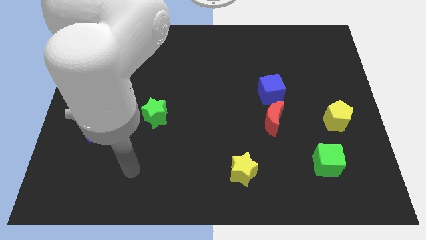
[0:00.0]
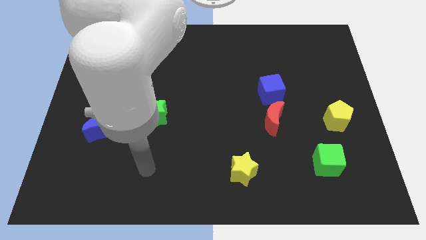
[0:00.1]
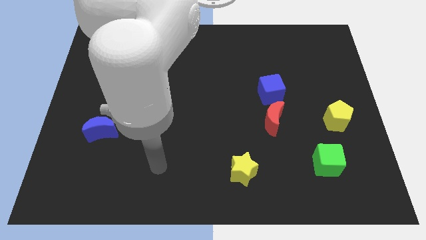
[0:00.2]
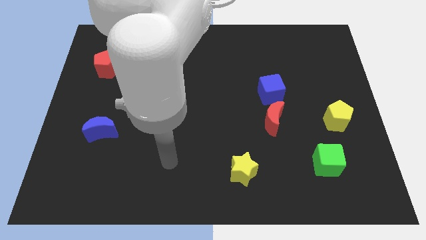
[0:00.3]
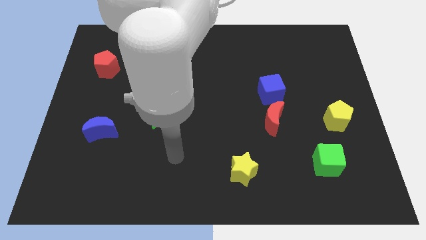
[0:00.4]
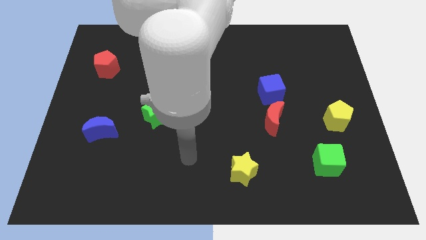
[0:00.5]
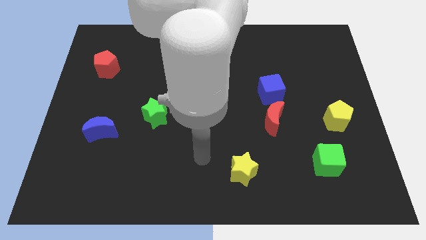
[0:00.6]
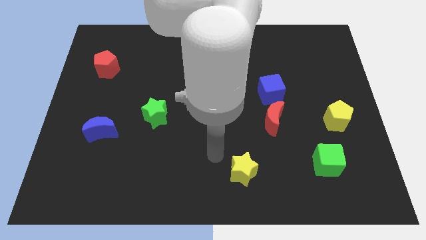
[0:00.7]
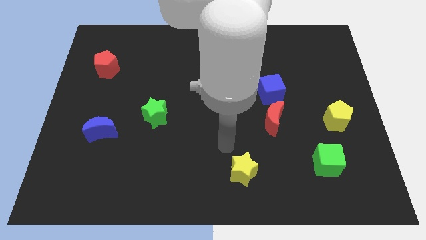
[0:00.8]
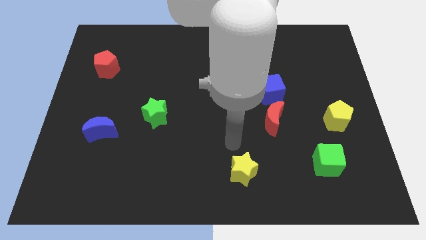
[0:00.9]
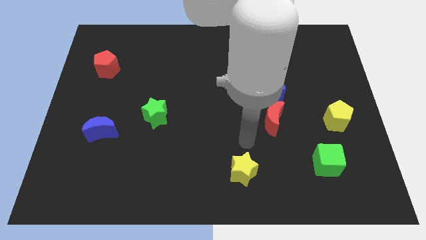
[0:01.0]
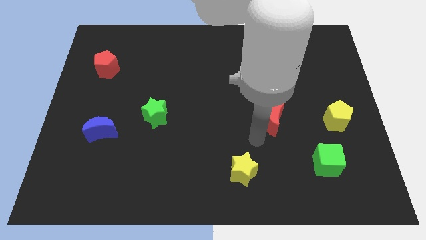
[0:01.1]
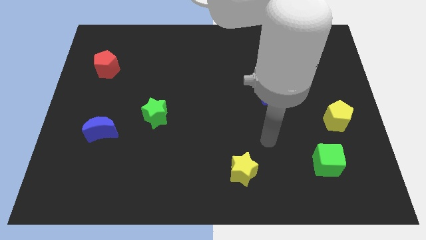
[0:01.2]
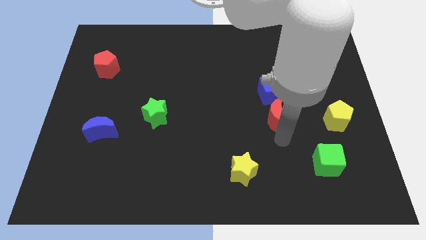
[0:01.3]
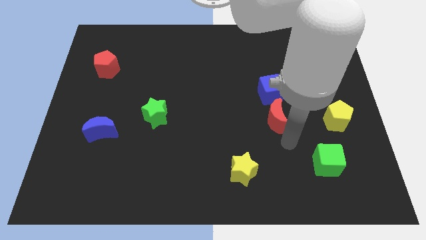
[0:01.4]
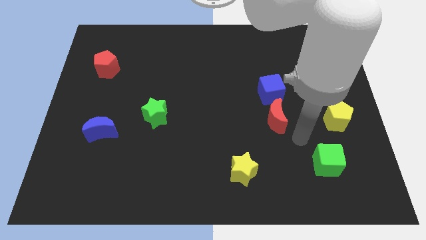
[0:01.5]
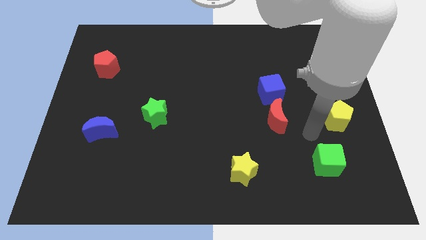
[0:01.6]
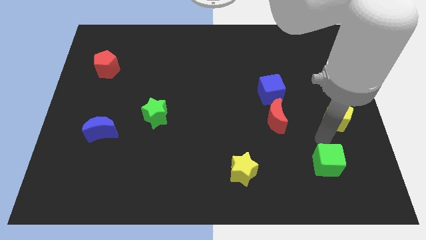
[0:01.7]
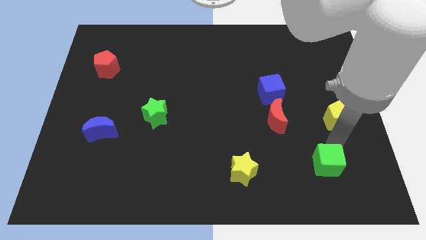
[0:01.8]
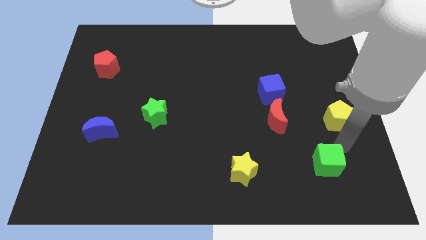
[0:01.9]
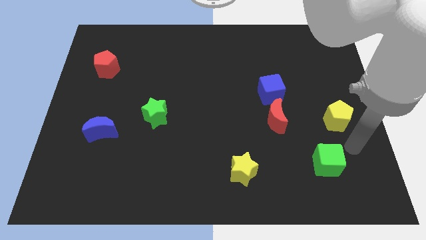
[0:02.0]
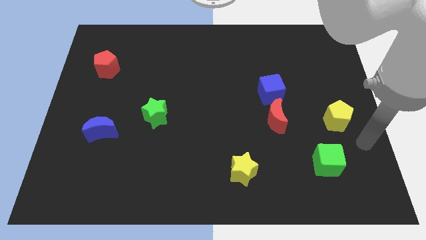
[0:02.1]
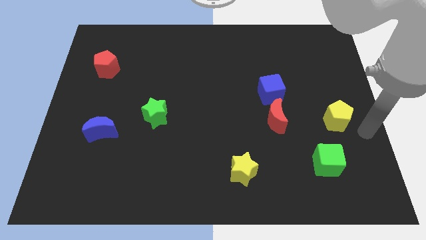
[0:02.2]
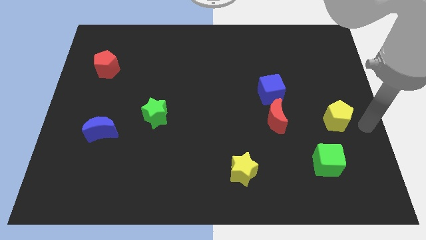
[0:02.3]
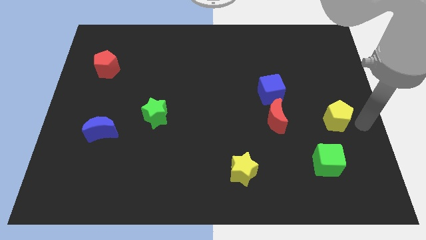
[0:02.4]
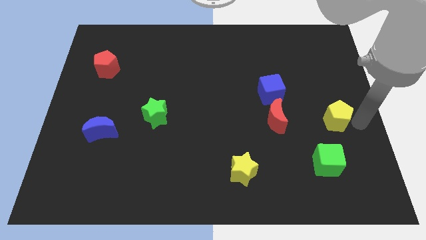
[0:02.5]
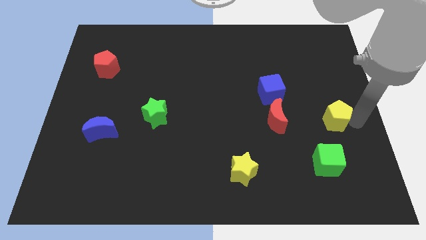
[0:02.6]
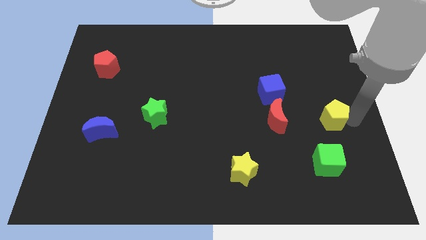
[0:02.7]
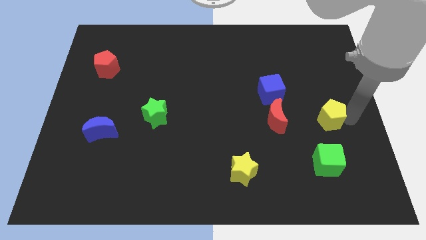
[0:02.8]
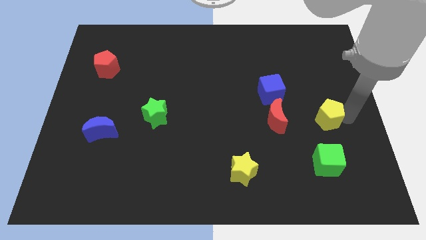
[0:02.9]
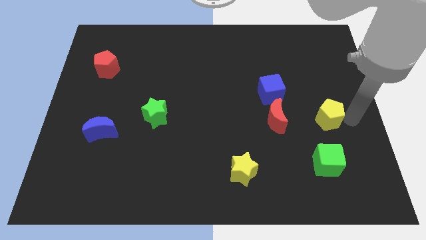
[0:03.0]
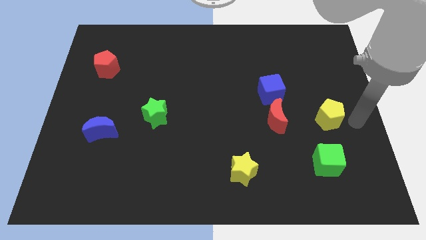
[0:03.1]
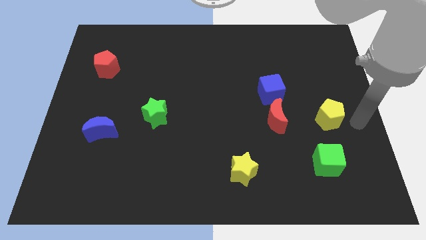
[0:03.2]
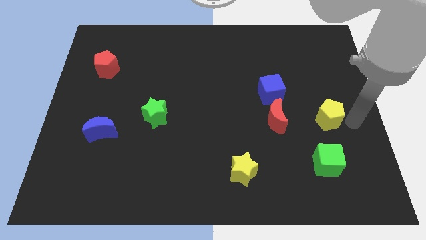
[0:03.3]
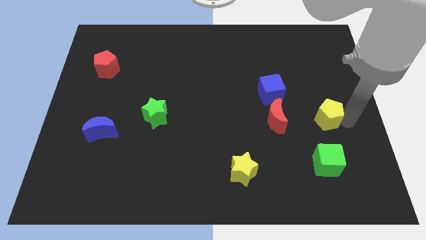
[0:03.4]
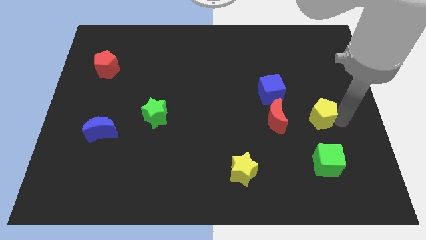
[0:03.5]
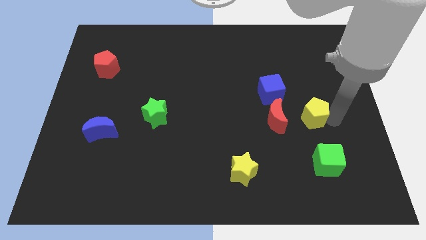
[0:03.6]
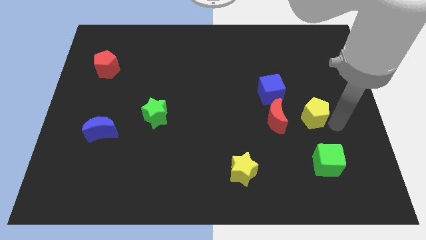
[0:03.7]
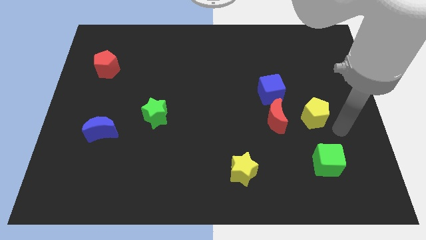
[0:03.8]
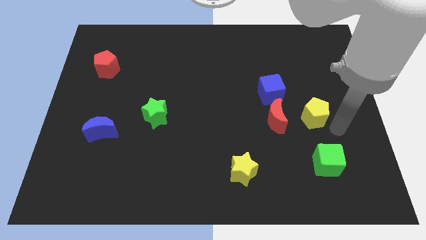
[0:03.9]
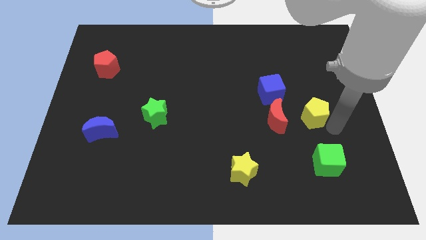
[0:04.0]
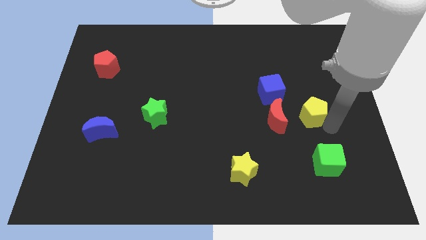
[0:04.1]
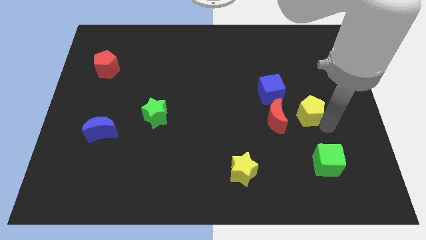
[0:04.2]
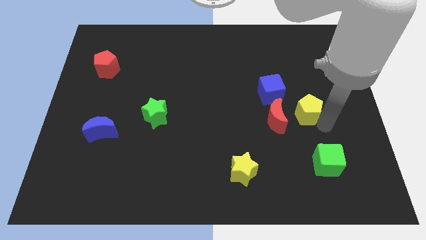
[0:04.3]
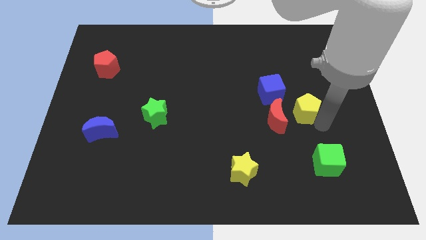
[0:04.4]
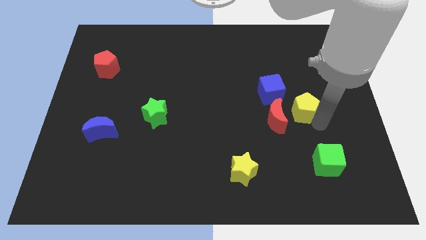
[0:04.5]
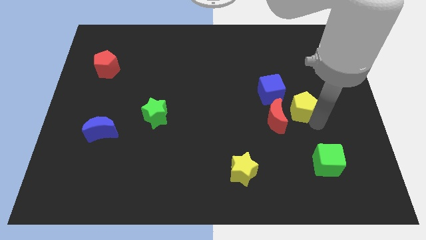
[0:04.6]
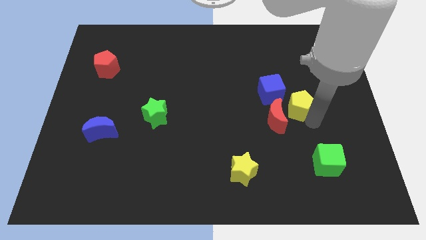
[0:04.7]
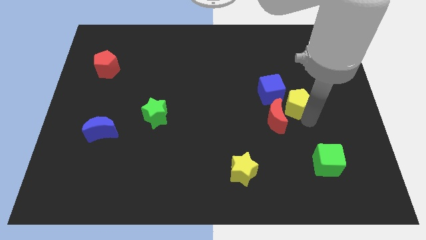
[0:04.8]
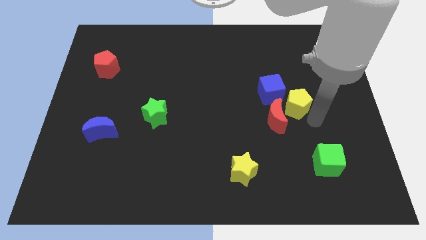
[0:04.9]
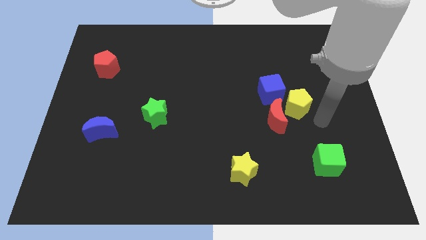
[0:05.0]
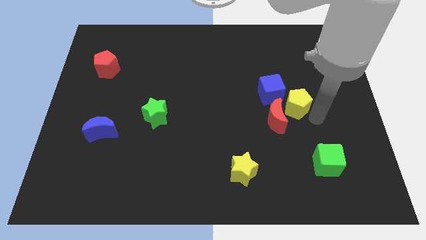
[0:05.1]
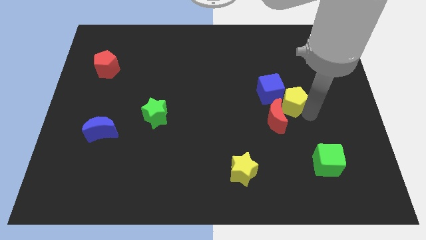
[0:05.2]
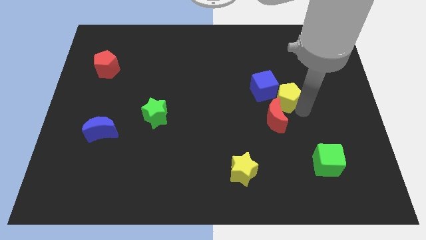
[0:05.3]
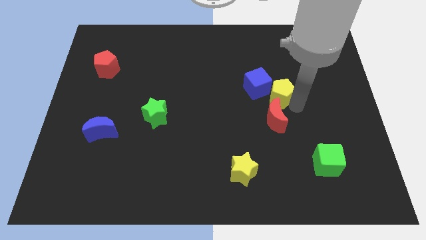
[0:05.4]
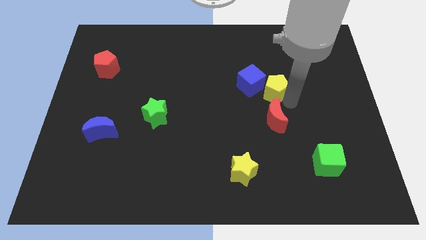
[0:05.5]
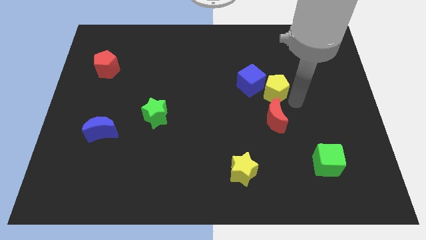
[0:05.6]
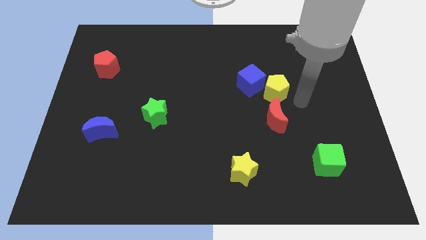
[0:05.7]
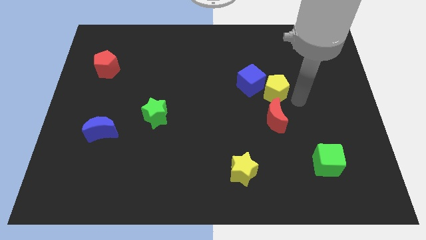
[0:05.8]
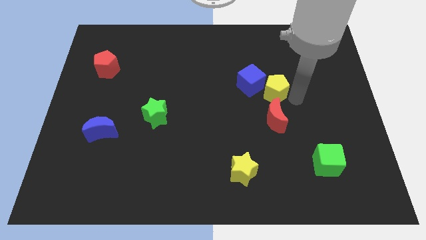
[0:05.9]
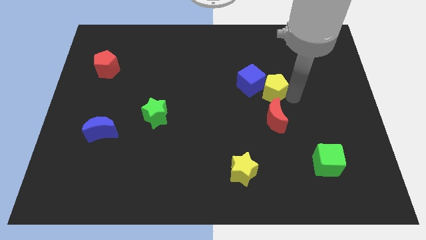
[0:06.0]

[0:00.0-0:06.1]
put the yellow pentagon to the blue cube

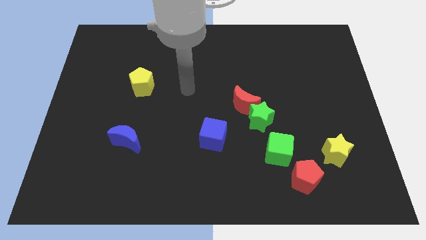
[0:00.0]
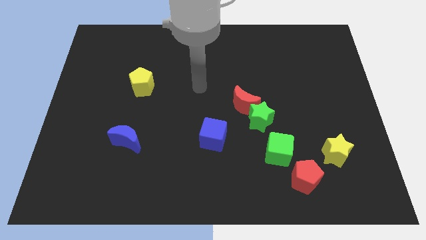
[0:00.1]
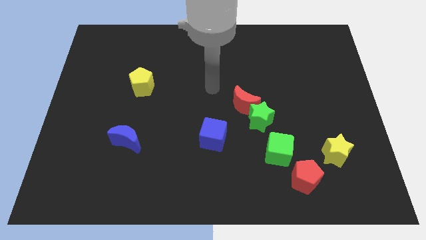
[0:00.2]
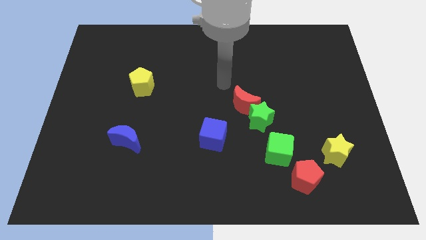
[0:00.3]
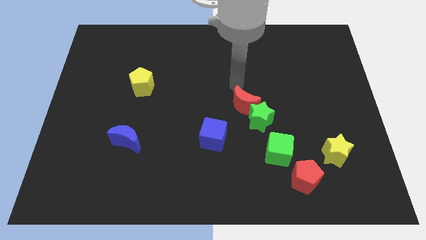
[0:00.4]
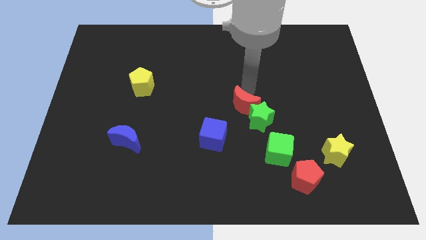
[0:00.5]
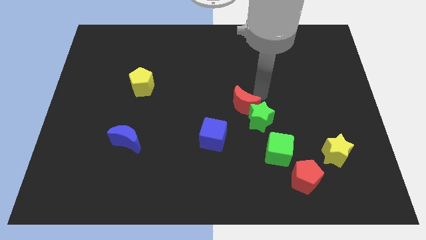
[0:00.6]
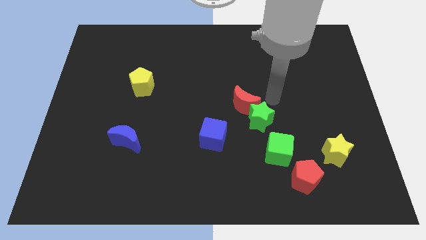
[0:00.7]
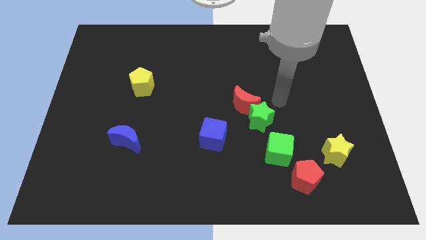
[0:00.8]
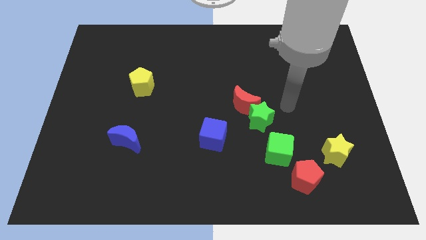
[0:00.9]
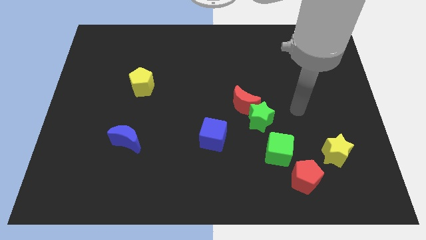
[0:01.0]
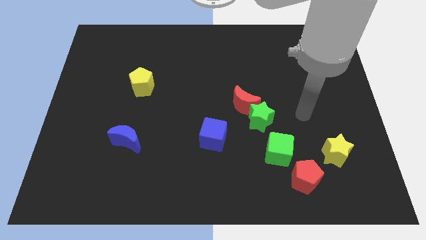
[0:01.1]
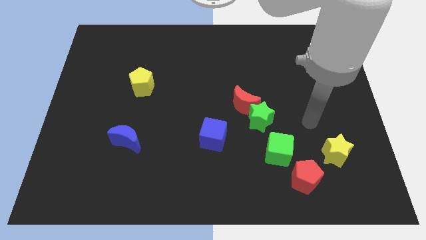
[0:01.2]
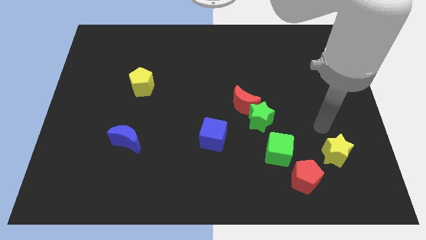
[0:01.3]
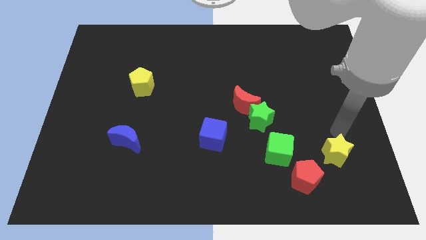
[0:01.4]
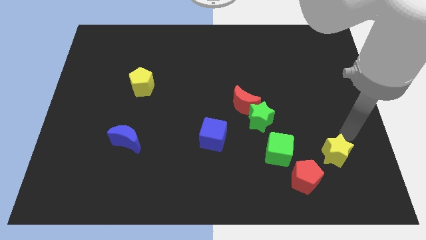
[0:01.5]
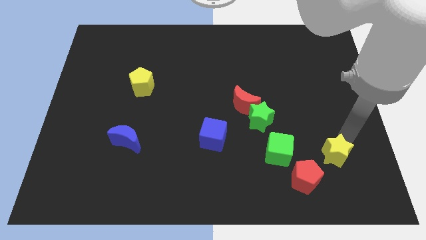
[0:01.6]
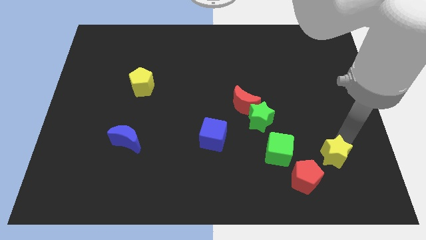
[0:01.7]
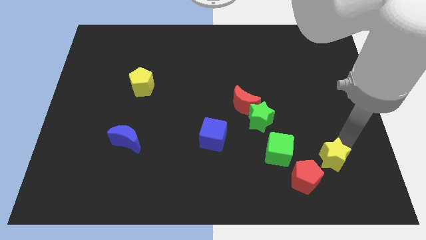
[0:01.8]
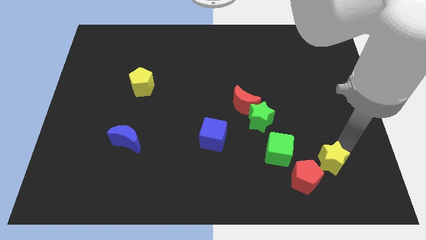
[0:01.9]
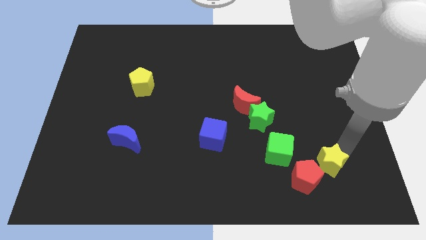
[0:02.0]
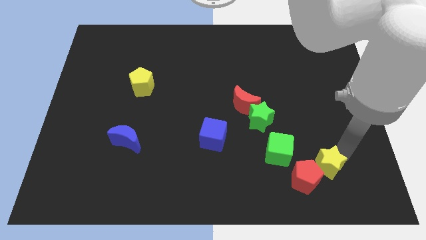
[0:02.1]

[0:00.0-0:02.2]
slide the yellow star towards the red pentagon
